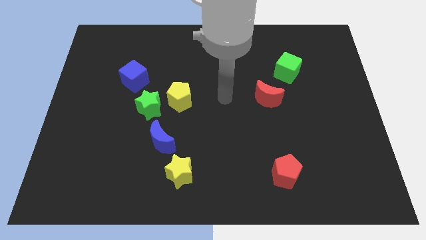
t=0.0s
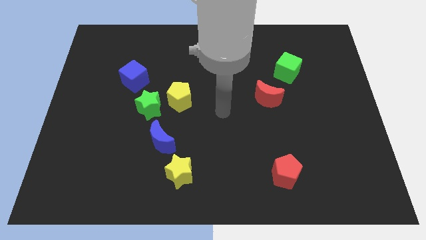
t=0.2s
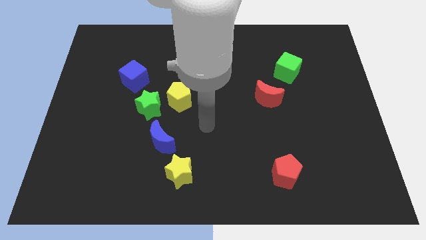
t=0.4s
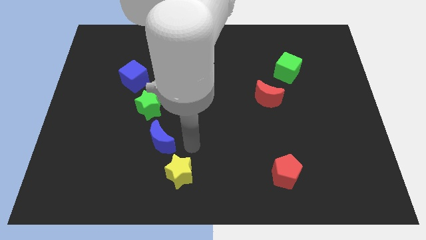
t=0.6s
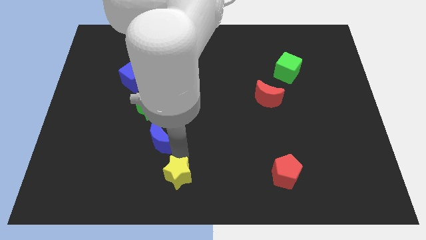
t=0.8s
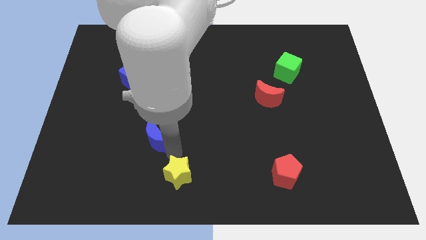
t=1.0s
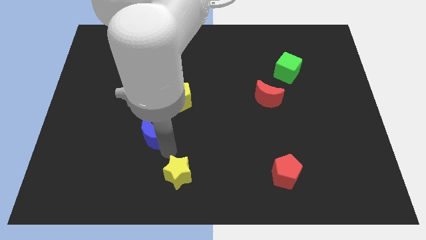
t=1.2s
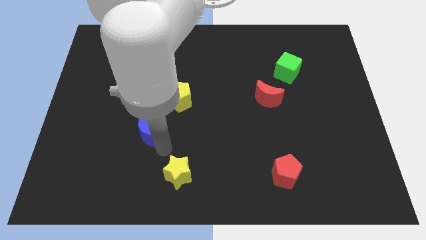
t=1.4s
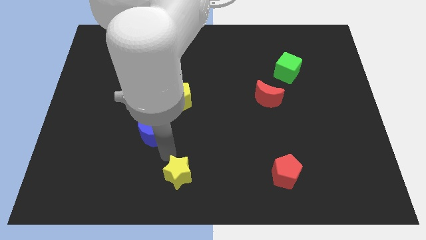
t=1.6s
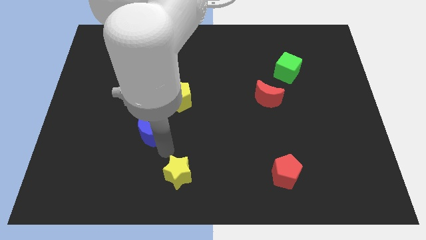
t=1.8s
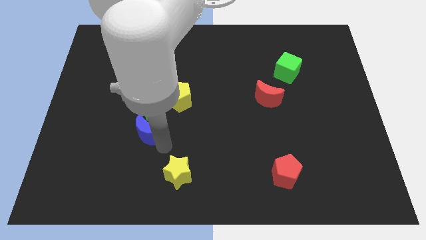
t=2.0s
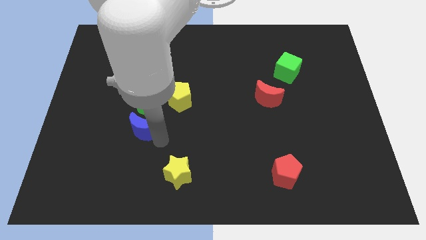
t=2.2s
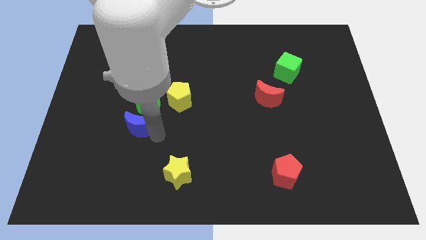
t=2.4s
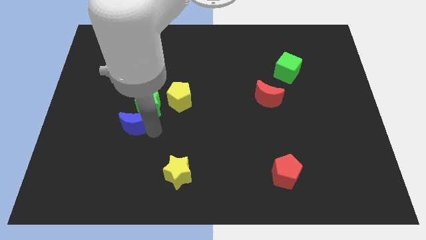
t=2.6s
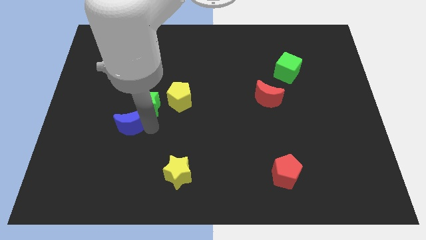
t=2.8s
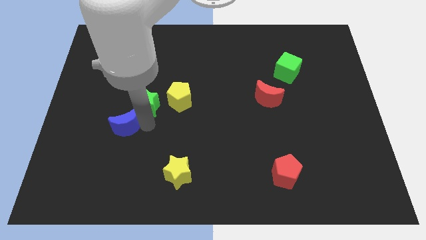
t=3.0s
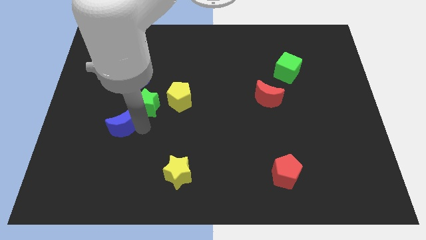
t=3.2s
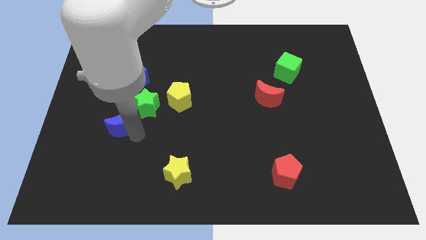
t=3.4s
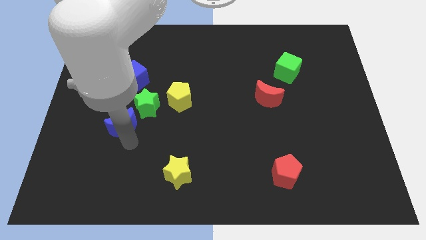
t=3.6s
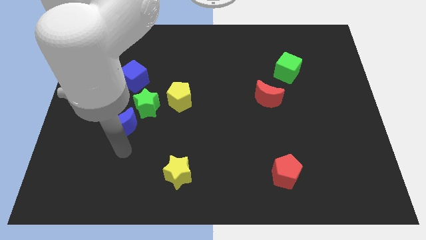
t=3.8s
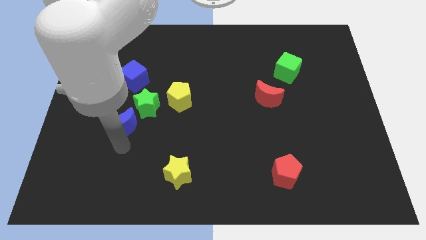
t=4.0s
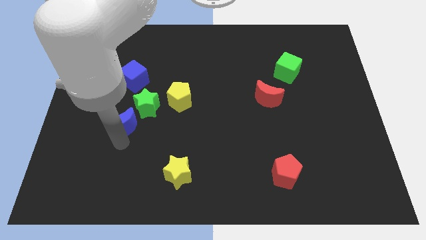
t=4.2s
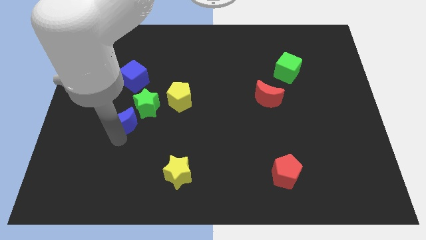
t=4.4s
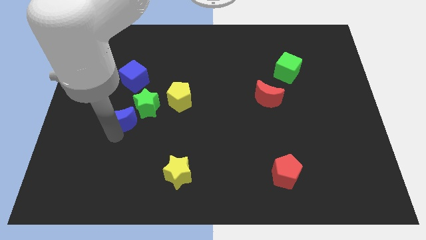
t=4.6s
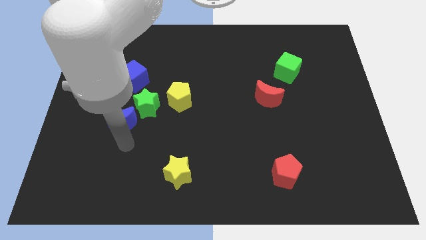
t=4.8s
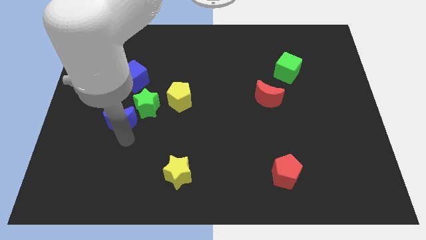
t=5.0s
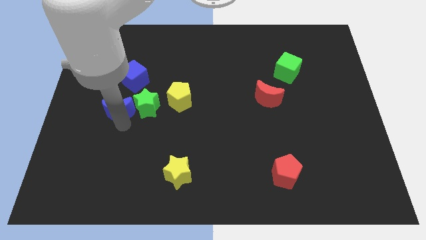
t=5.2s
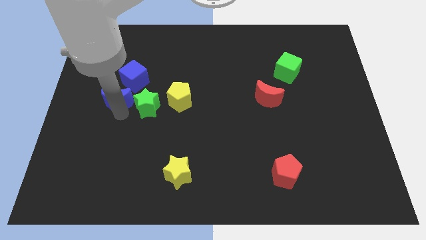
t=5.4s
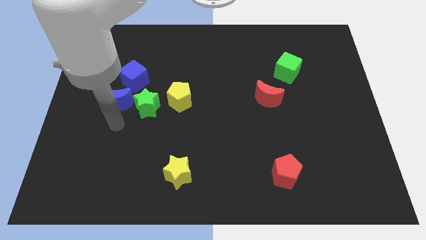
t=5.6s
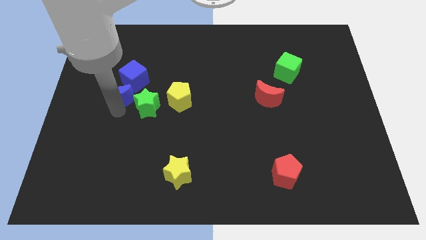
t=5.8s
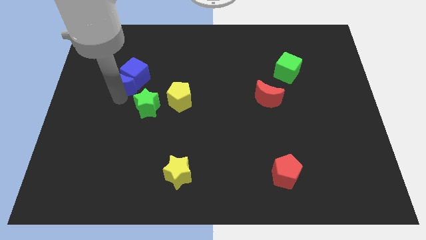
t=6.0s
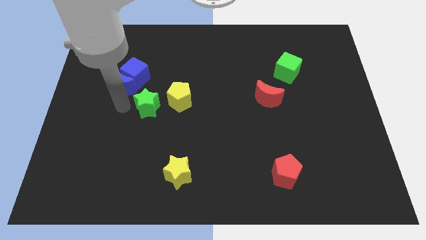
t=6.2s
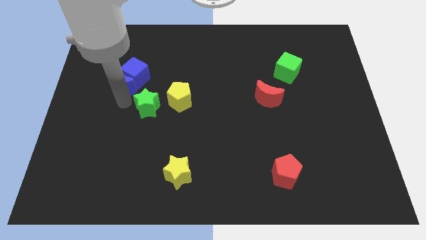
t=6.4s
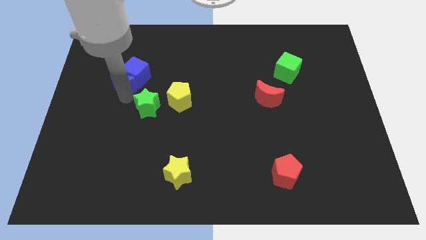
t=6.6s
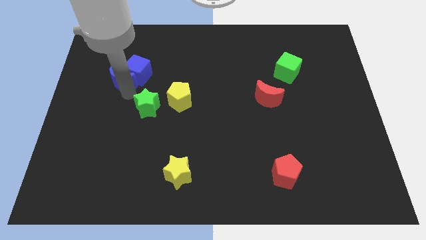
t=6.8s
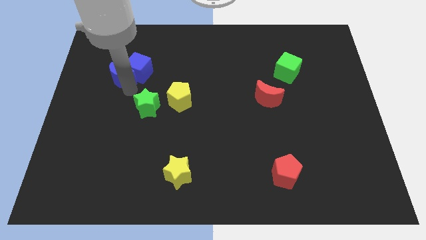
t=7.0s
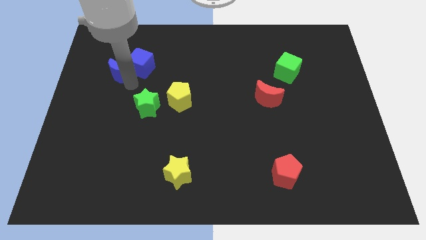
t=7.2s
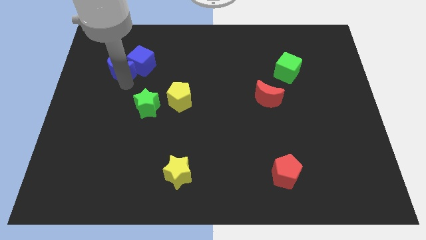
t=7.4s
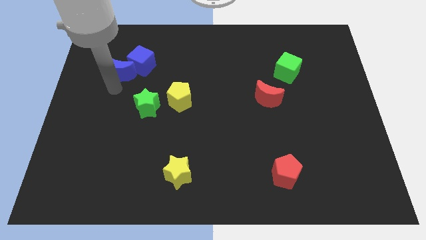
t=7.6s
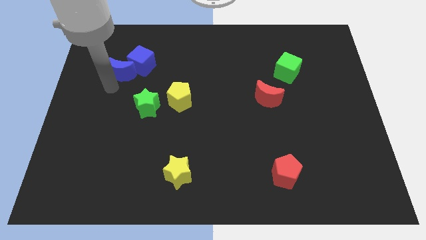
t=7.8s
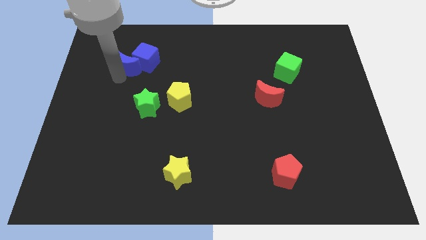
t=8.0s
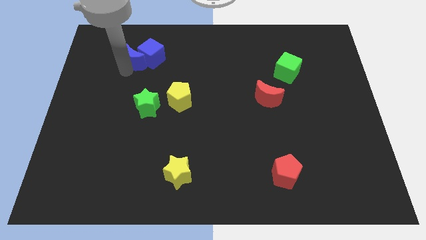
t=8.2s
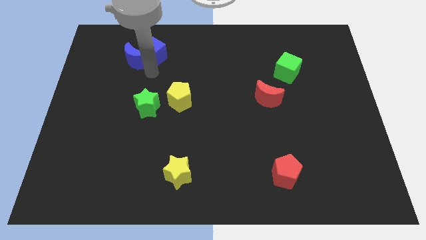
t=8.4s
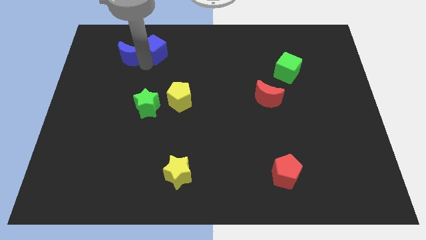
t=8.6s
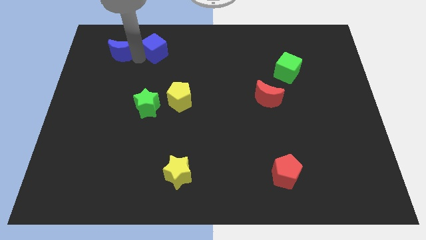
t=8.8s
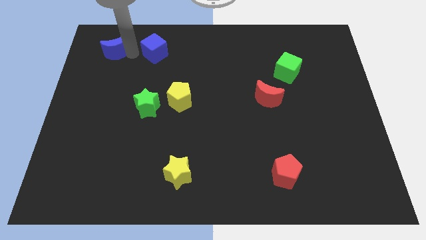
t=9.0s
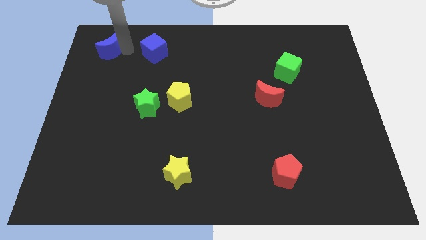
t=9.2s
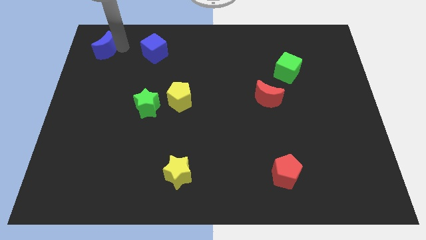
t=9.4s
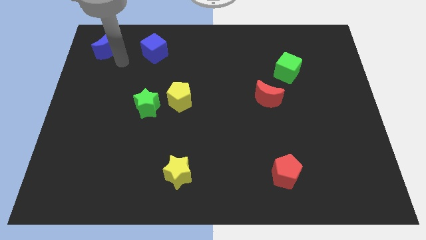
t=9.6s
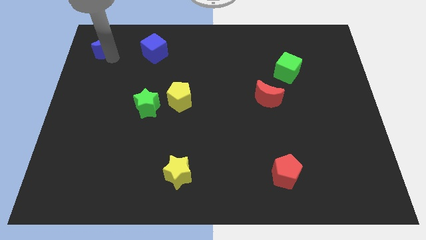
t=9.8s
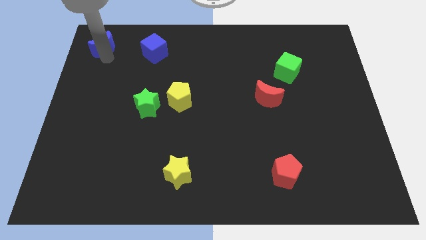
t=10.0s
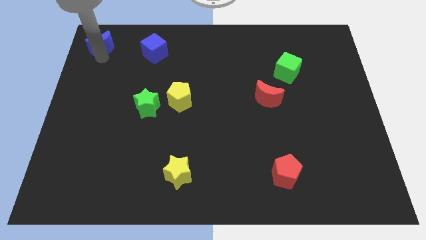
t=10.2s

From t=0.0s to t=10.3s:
push the blue moon to the top left corner

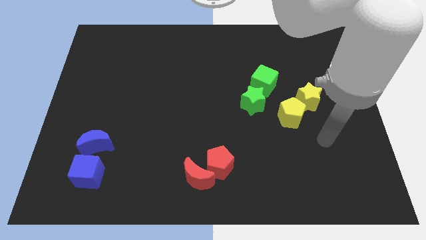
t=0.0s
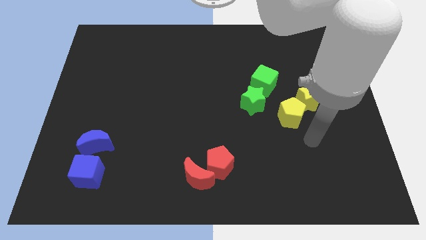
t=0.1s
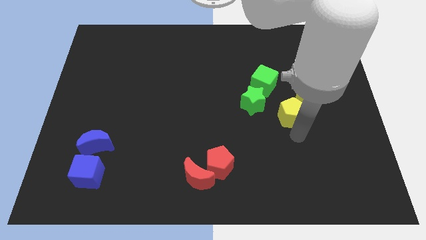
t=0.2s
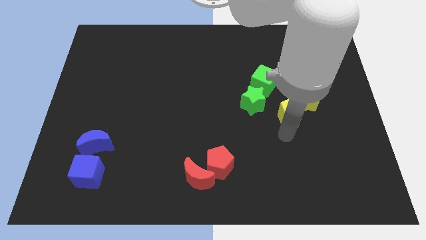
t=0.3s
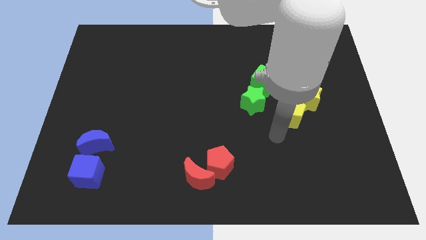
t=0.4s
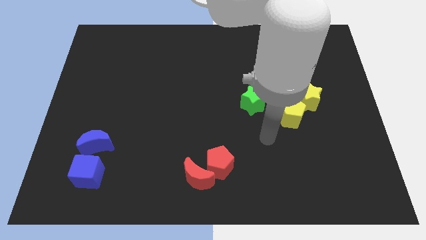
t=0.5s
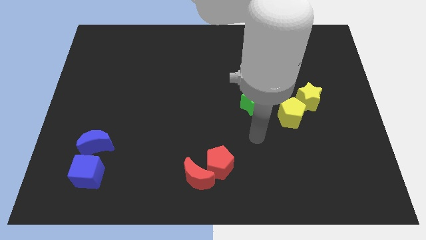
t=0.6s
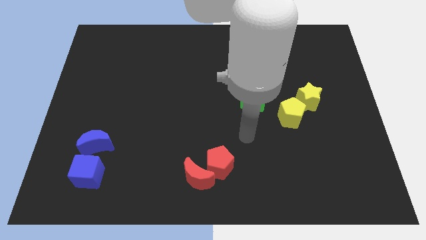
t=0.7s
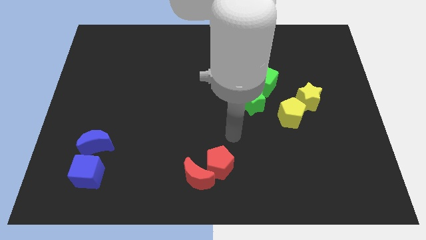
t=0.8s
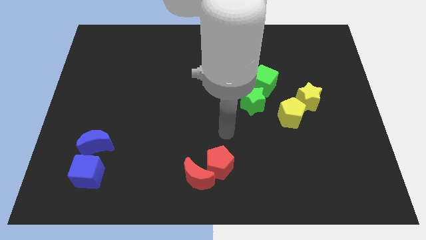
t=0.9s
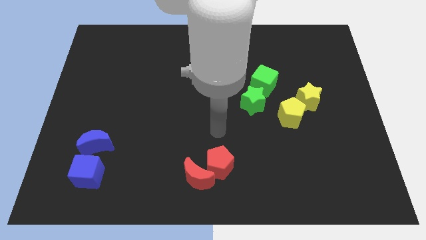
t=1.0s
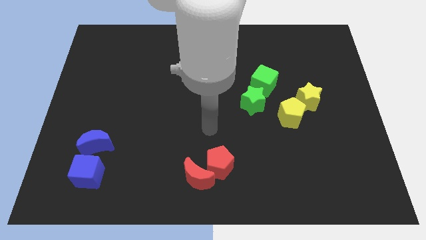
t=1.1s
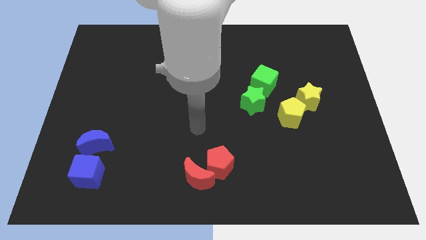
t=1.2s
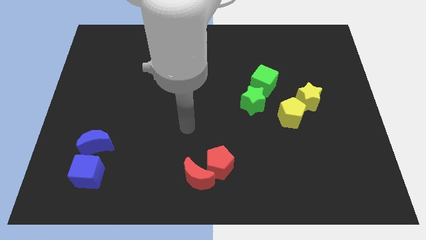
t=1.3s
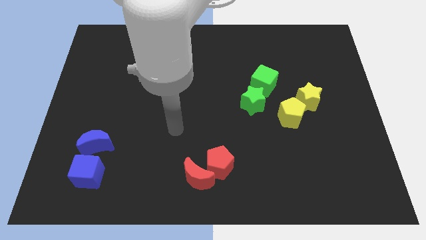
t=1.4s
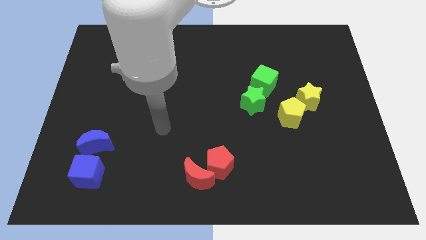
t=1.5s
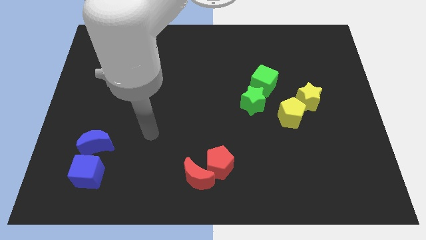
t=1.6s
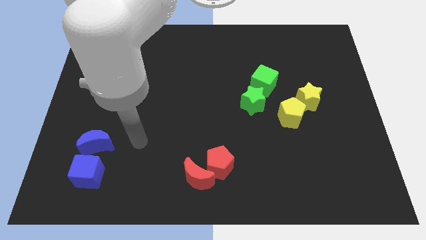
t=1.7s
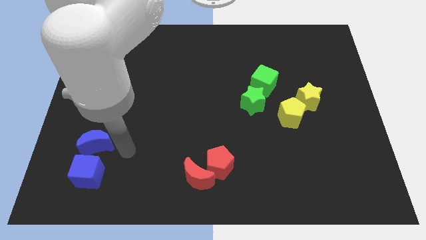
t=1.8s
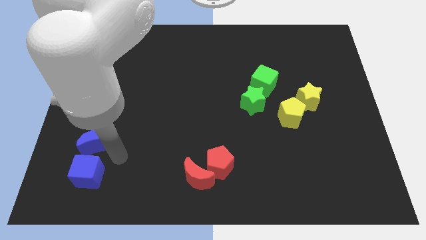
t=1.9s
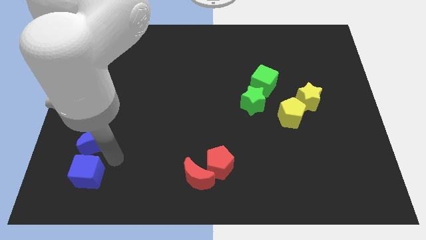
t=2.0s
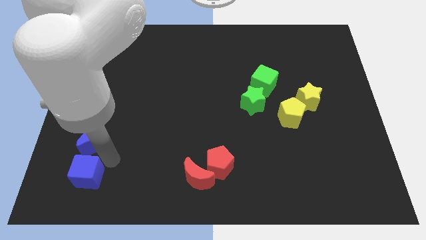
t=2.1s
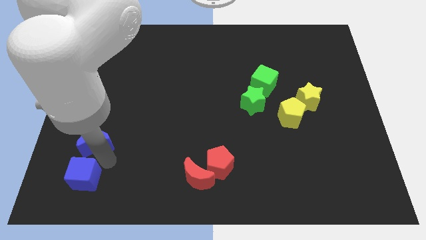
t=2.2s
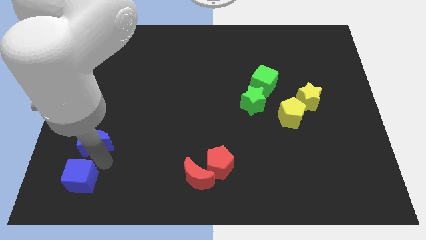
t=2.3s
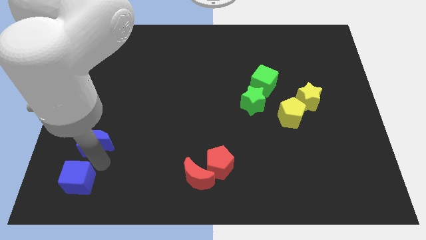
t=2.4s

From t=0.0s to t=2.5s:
put the blue cube to the bottom left of the board
